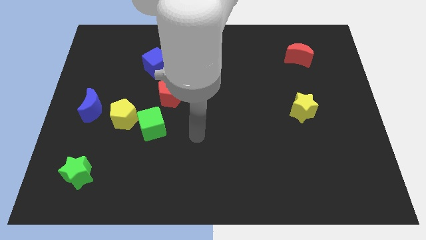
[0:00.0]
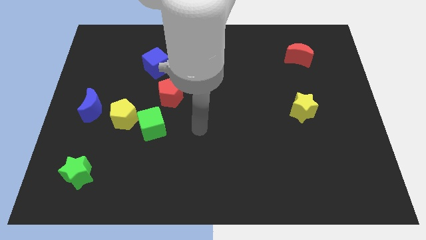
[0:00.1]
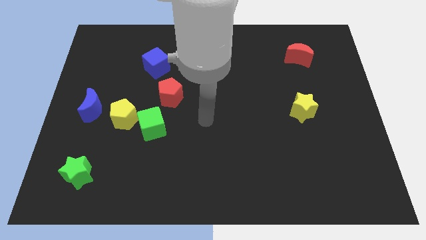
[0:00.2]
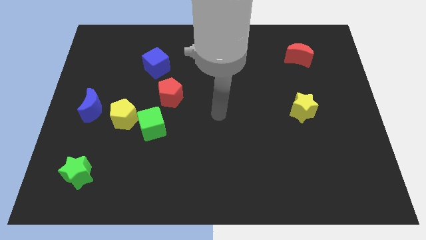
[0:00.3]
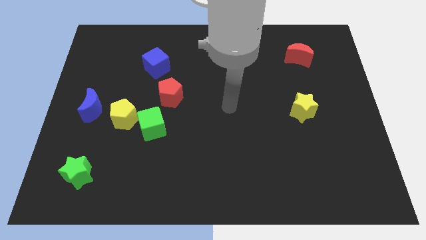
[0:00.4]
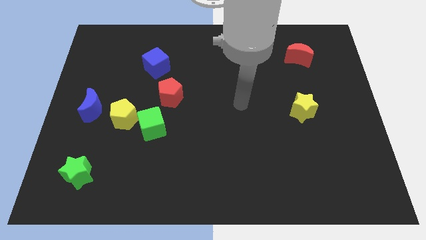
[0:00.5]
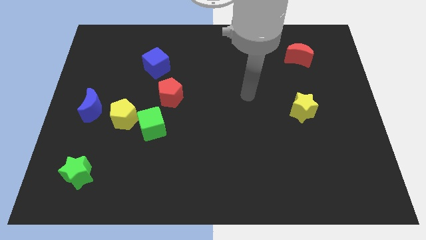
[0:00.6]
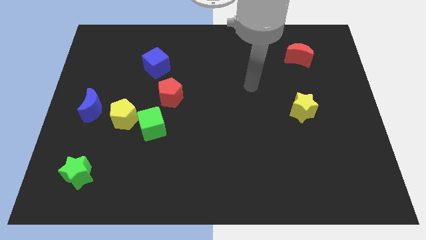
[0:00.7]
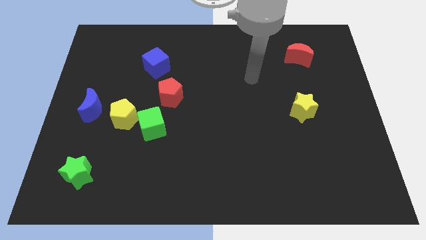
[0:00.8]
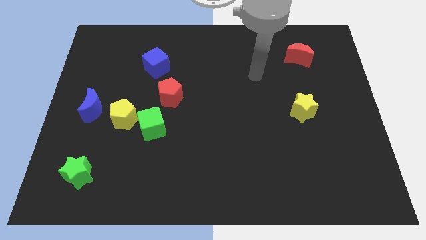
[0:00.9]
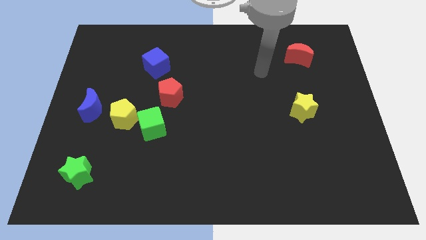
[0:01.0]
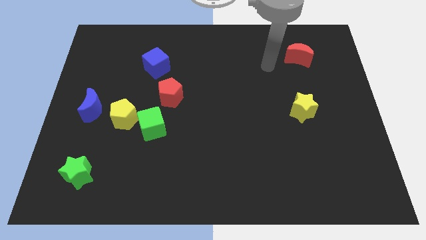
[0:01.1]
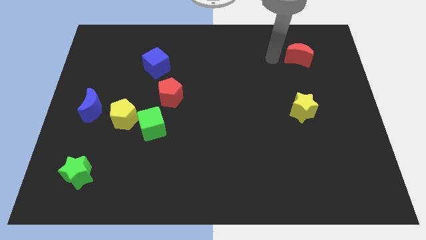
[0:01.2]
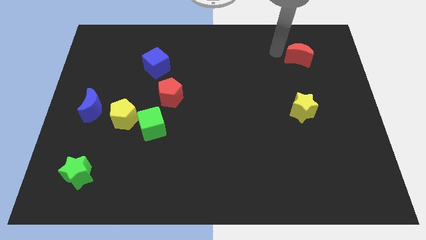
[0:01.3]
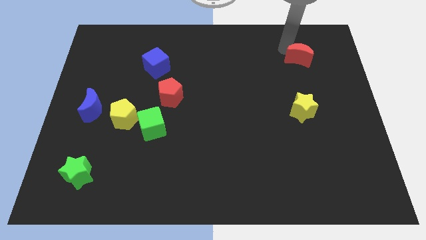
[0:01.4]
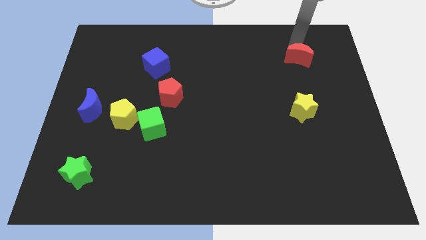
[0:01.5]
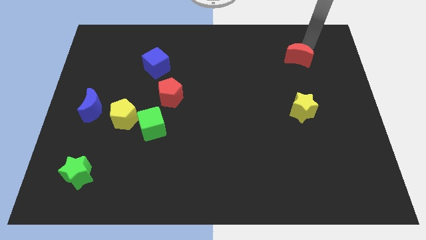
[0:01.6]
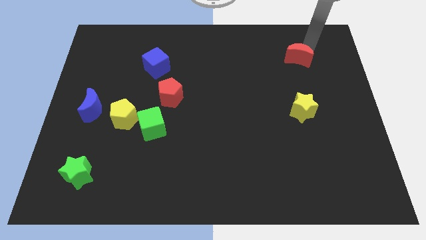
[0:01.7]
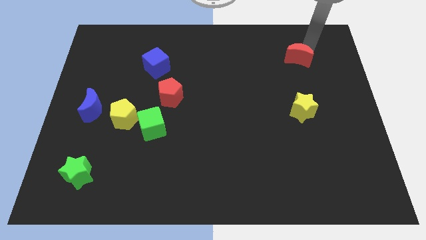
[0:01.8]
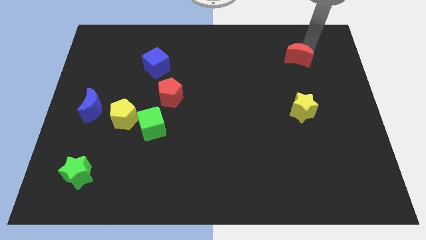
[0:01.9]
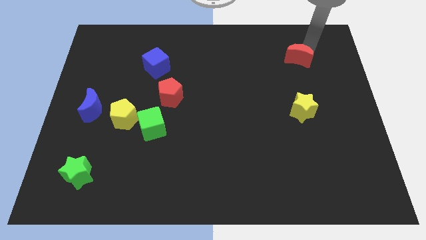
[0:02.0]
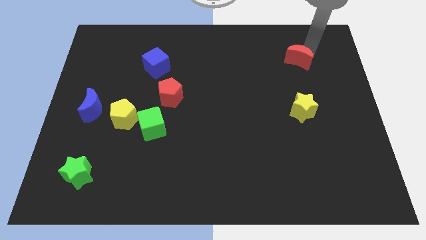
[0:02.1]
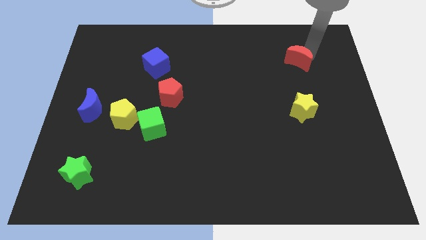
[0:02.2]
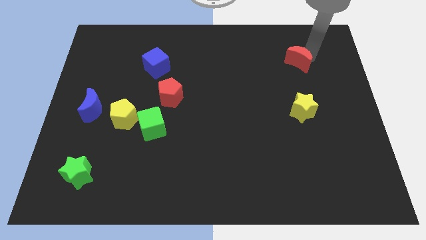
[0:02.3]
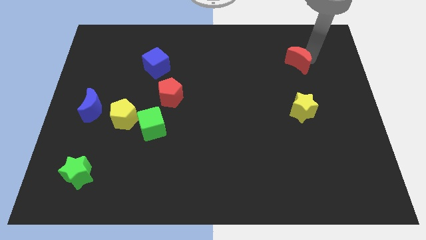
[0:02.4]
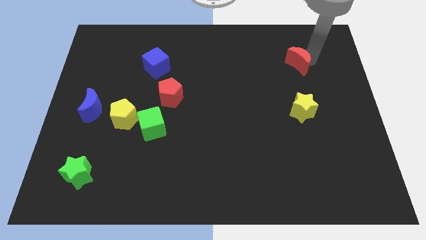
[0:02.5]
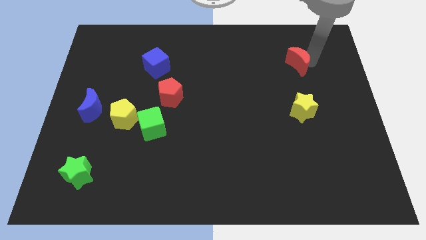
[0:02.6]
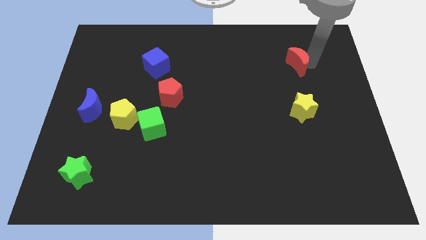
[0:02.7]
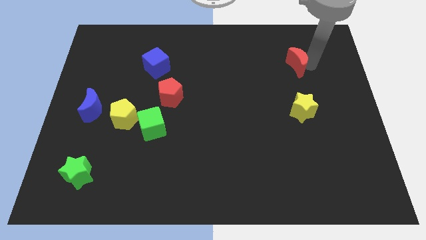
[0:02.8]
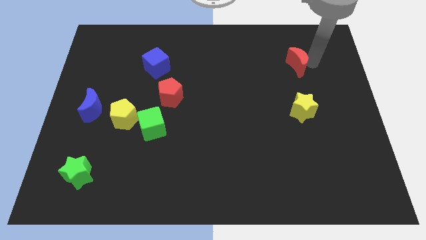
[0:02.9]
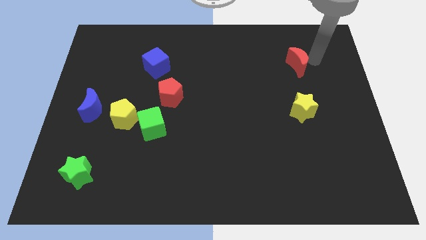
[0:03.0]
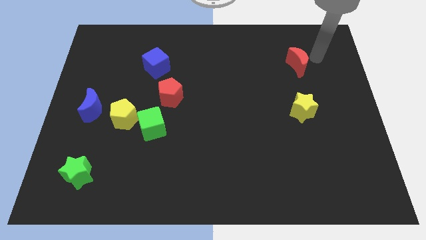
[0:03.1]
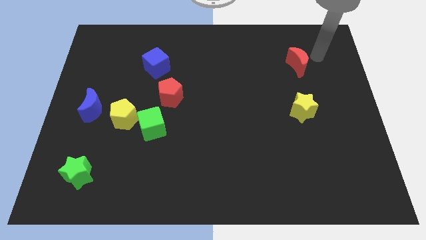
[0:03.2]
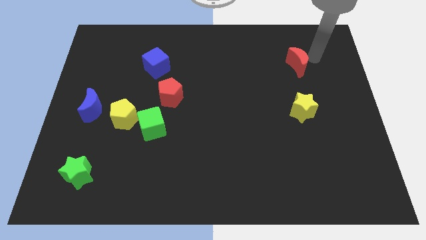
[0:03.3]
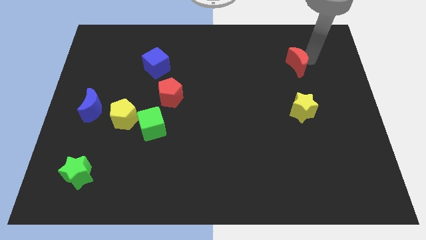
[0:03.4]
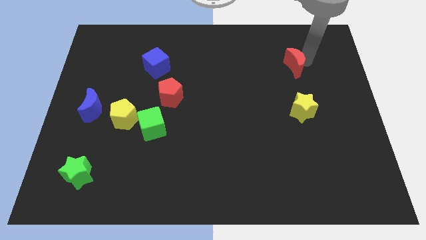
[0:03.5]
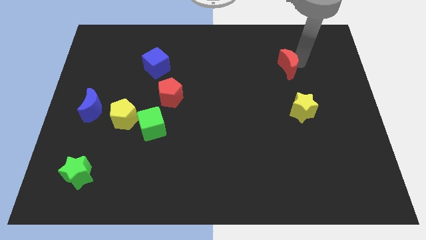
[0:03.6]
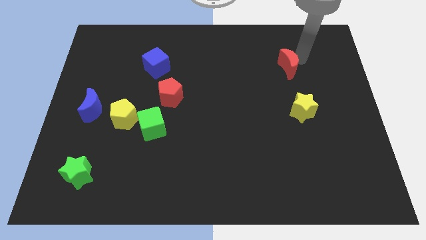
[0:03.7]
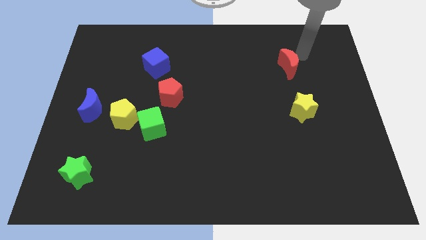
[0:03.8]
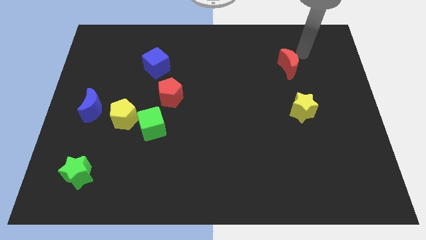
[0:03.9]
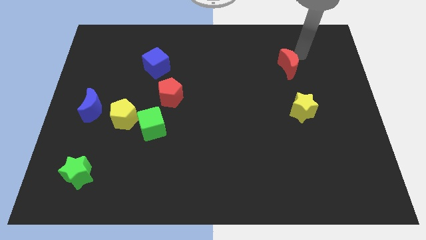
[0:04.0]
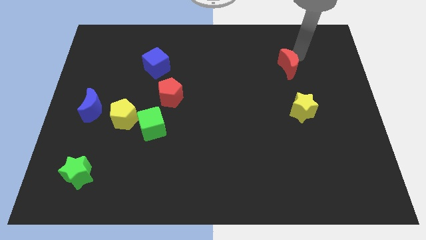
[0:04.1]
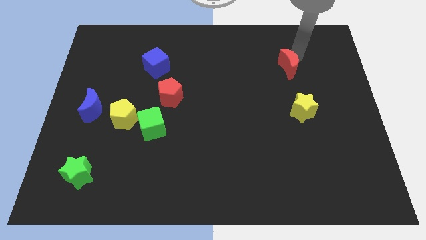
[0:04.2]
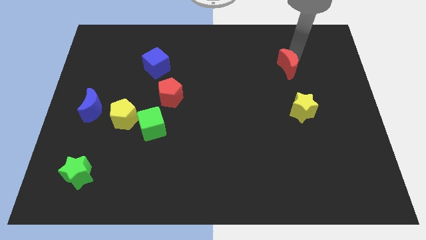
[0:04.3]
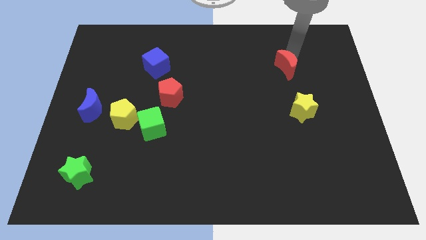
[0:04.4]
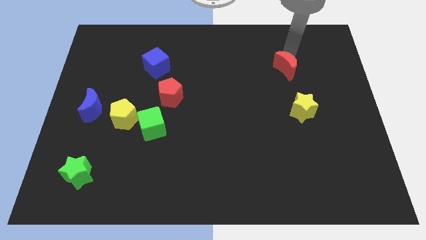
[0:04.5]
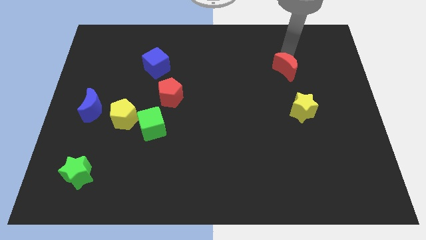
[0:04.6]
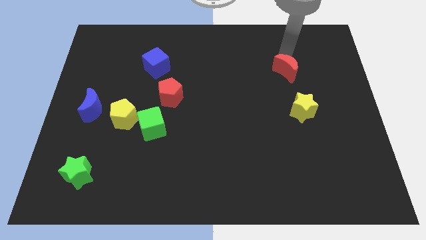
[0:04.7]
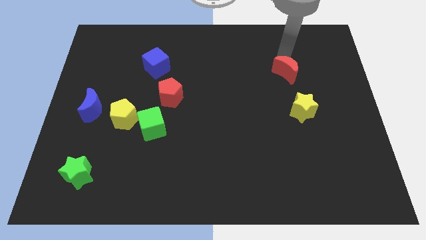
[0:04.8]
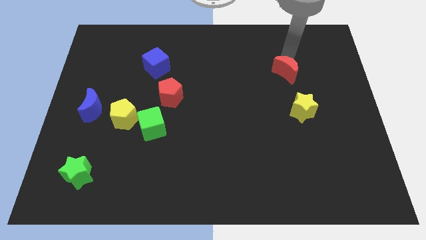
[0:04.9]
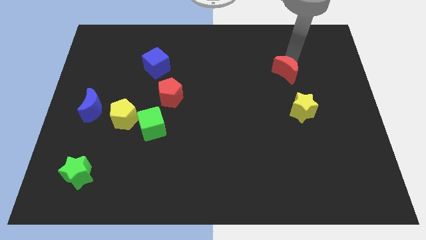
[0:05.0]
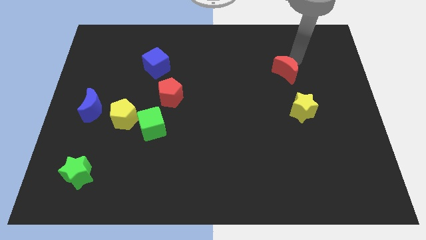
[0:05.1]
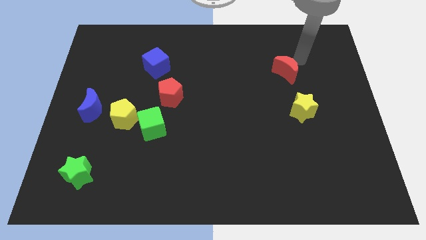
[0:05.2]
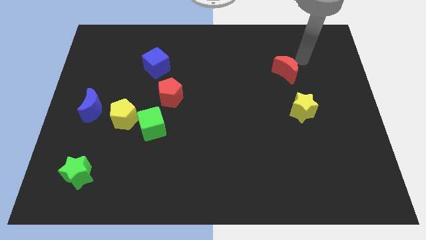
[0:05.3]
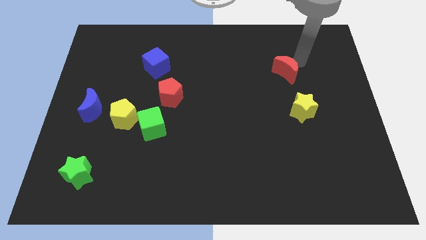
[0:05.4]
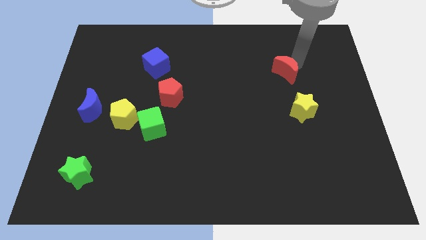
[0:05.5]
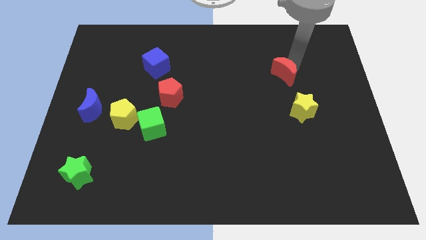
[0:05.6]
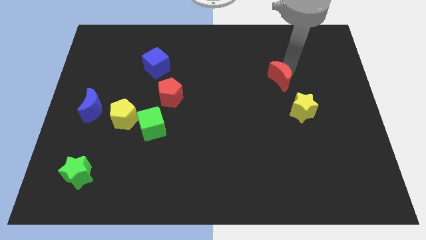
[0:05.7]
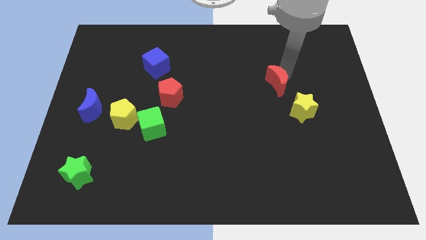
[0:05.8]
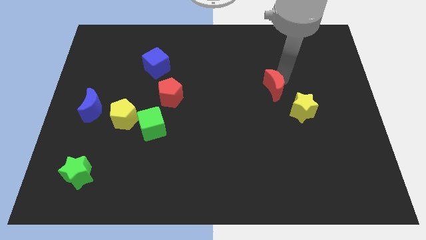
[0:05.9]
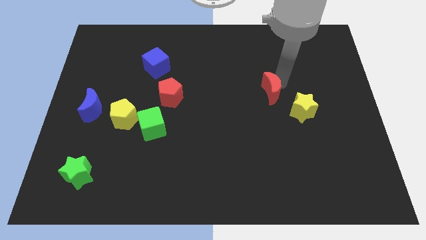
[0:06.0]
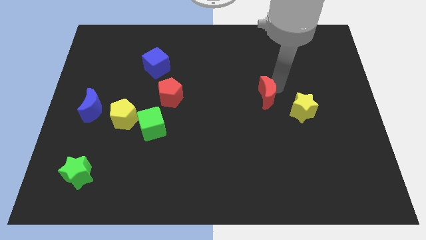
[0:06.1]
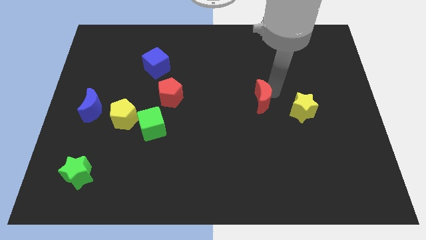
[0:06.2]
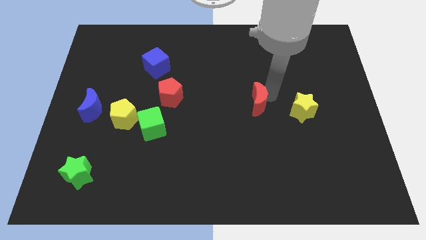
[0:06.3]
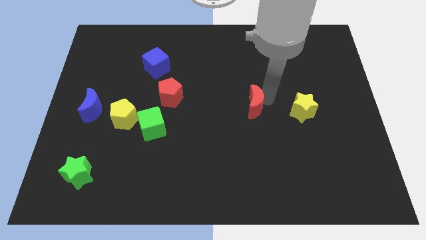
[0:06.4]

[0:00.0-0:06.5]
move the red moon down and left

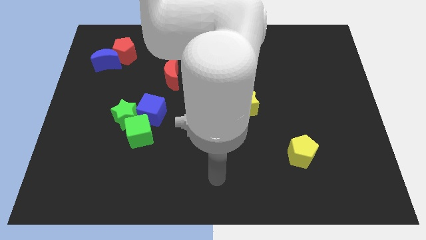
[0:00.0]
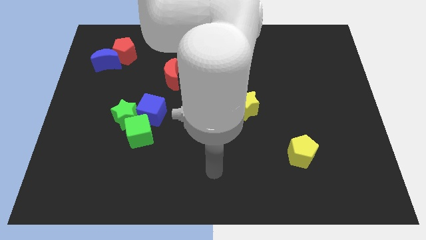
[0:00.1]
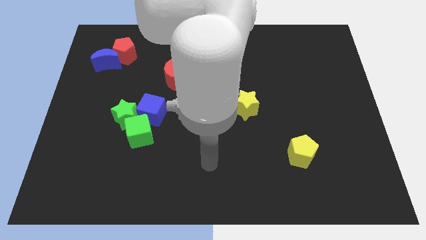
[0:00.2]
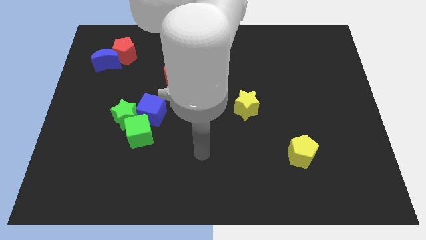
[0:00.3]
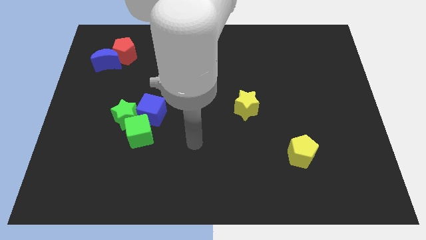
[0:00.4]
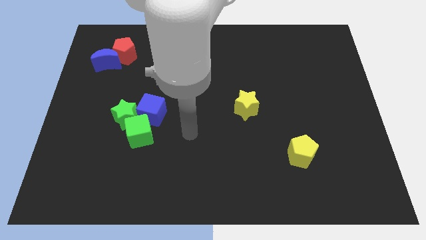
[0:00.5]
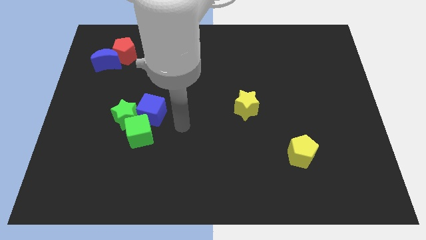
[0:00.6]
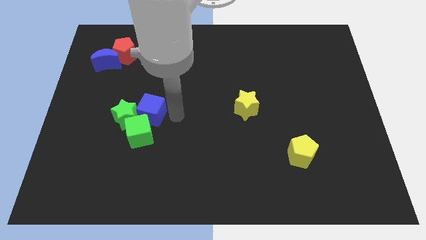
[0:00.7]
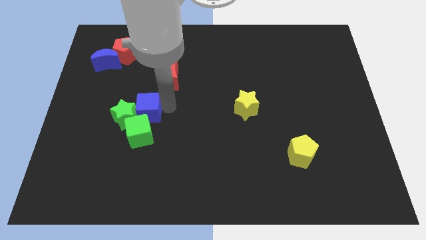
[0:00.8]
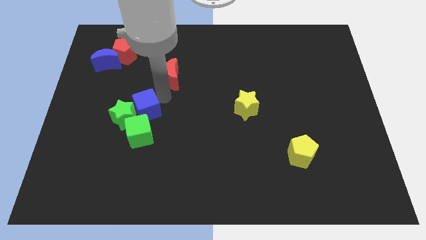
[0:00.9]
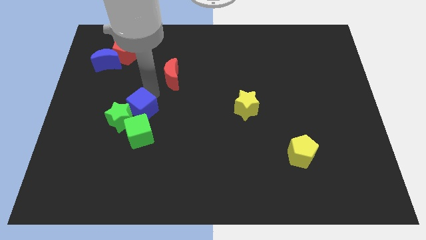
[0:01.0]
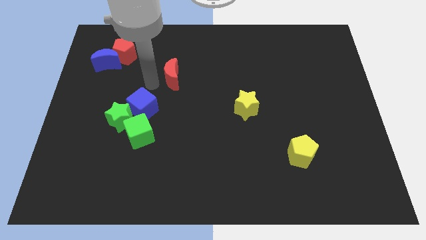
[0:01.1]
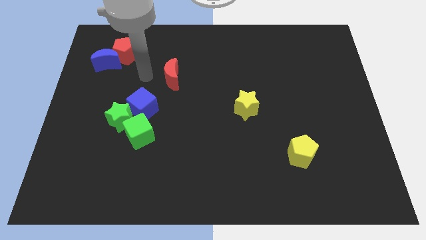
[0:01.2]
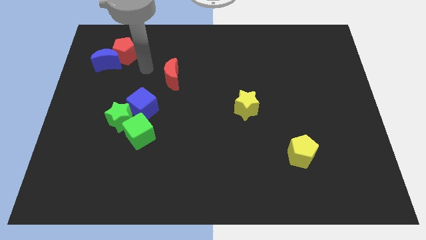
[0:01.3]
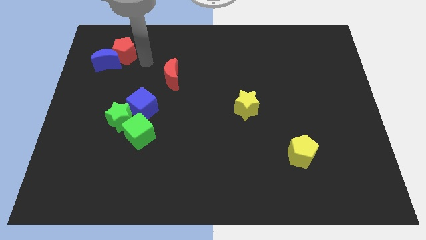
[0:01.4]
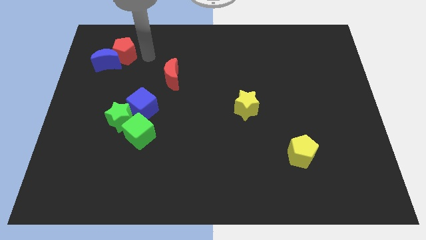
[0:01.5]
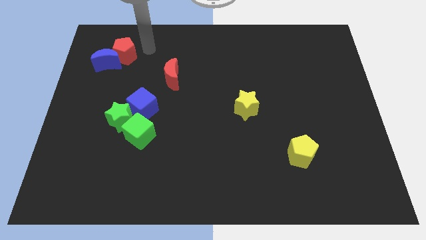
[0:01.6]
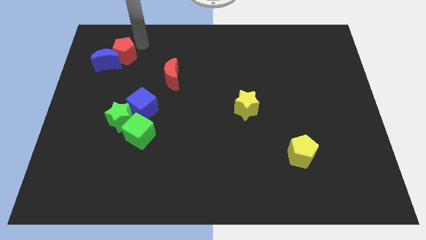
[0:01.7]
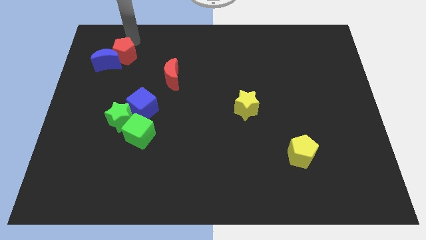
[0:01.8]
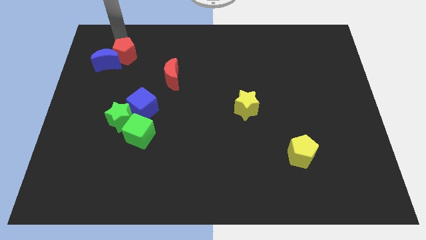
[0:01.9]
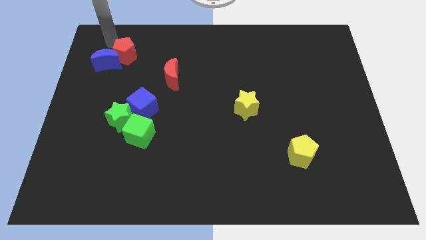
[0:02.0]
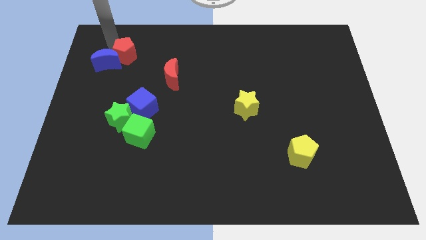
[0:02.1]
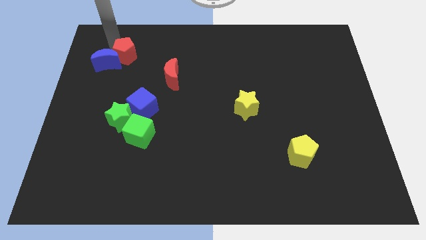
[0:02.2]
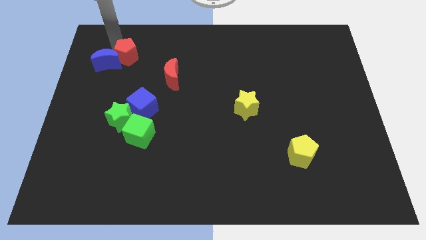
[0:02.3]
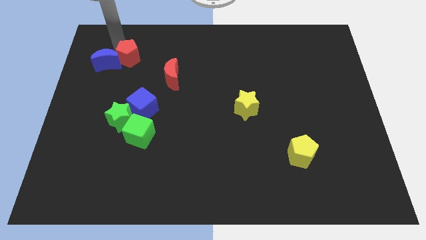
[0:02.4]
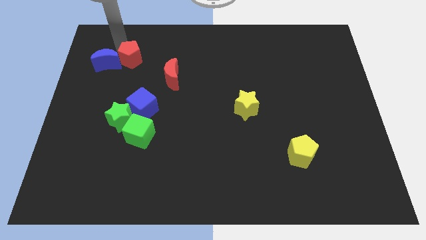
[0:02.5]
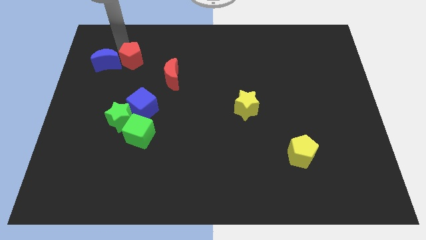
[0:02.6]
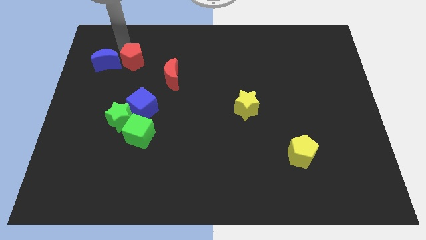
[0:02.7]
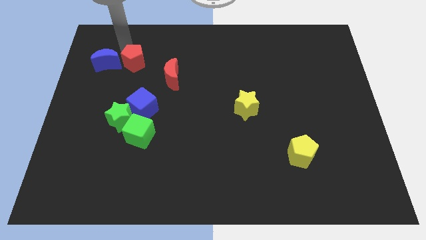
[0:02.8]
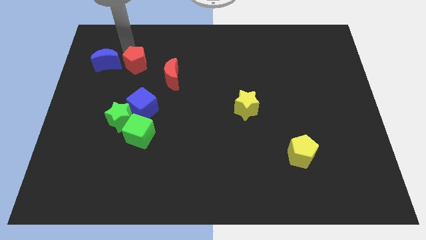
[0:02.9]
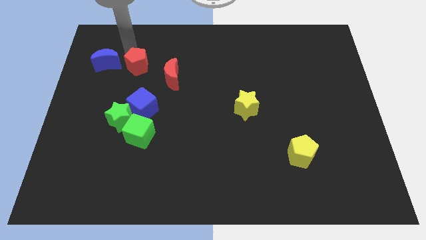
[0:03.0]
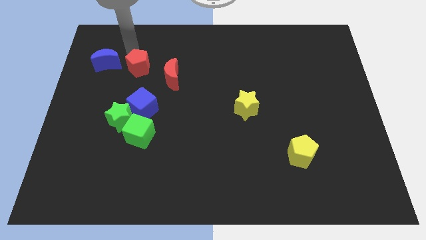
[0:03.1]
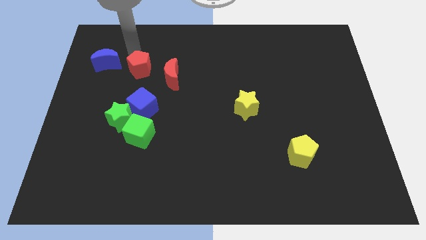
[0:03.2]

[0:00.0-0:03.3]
slide the red pentagon downwards and right a little
